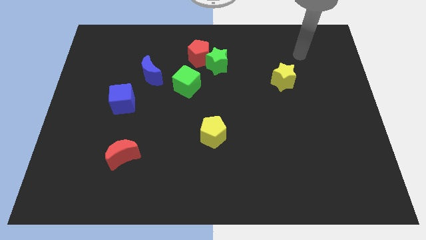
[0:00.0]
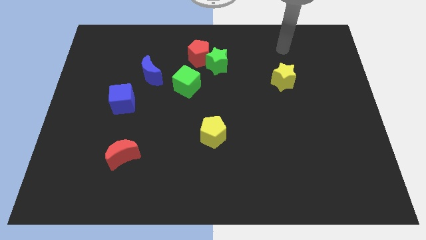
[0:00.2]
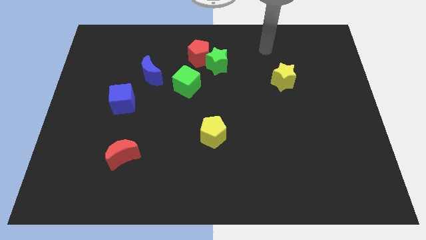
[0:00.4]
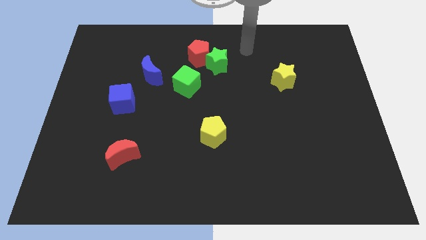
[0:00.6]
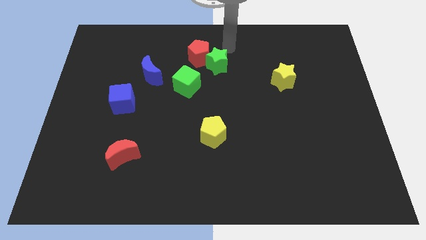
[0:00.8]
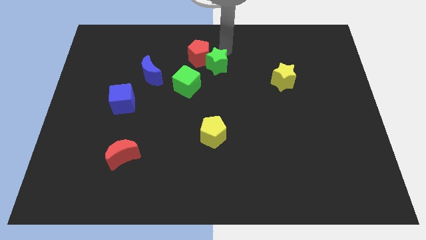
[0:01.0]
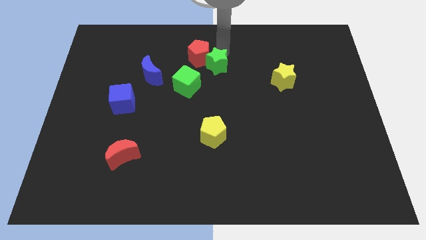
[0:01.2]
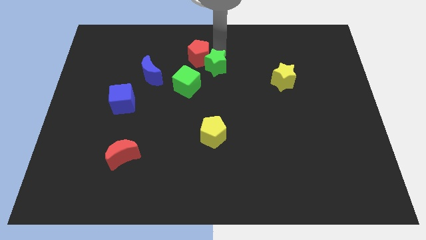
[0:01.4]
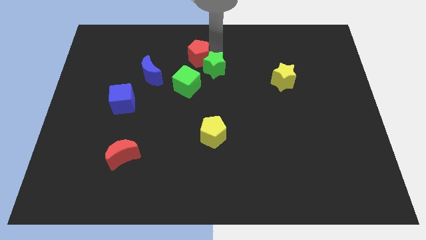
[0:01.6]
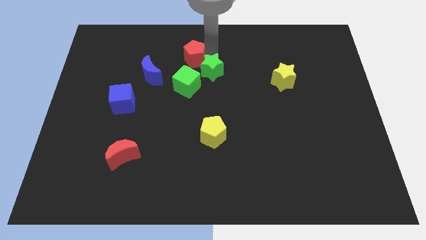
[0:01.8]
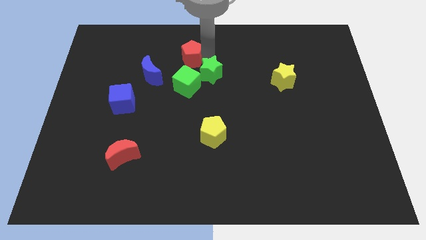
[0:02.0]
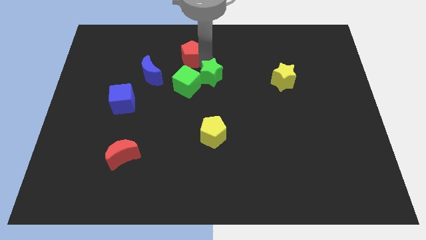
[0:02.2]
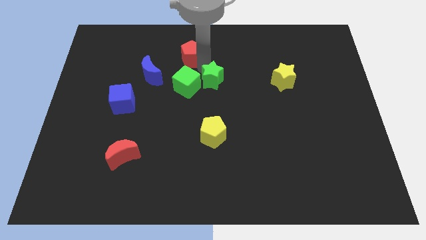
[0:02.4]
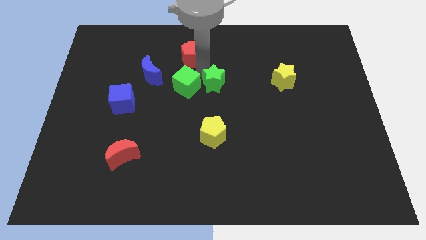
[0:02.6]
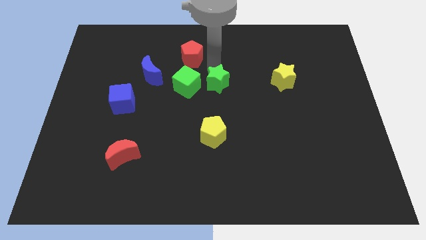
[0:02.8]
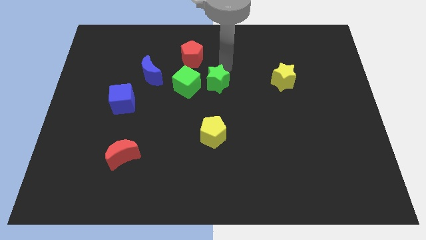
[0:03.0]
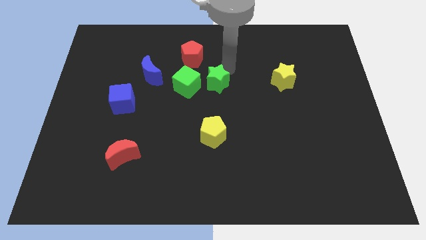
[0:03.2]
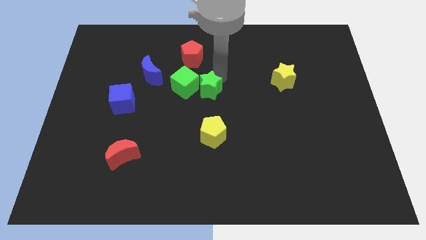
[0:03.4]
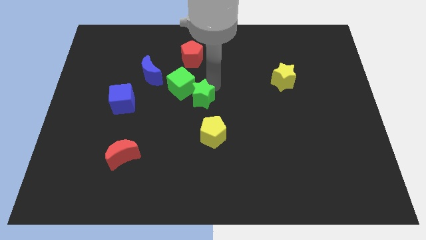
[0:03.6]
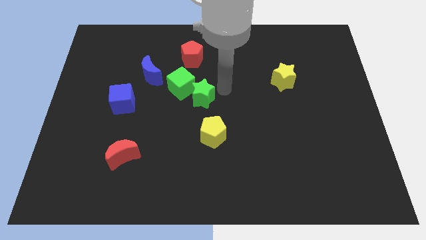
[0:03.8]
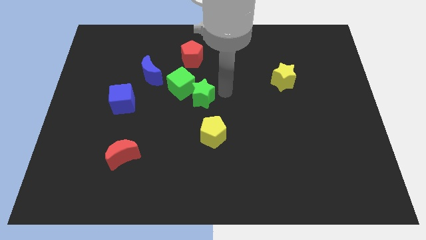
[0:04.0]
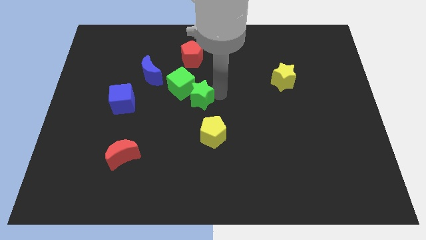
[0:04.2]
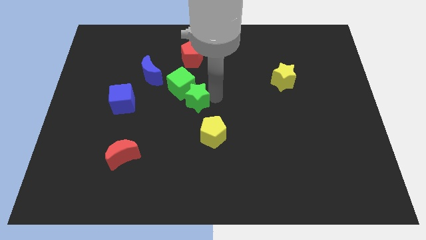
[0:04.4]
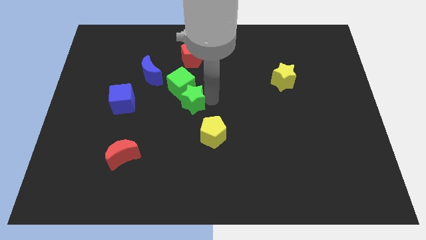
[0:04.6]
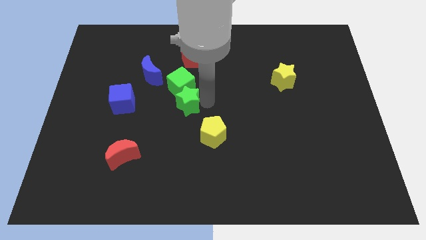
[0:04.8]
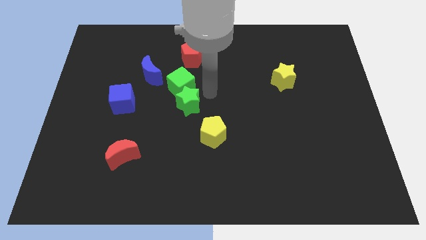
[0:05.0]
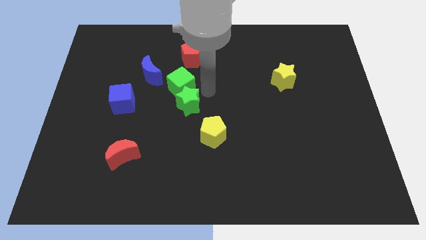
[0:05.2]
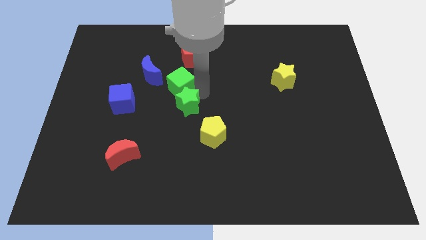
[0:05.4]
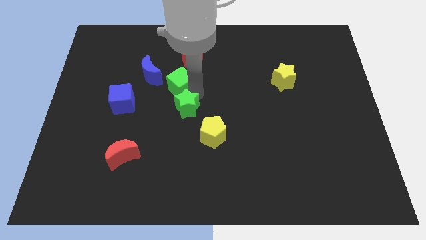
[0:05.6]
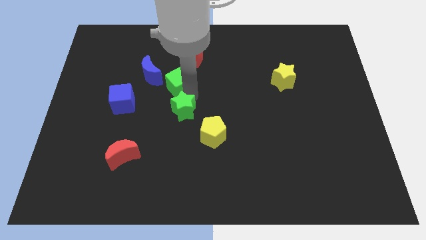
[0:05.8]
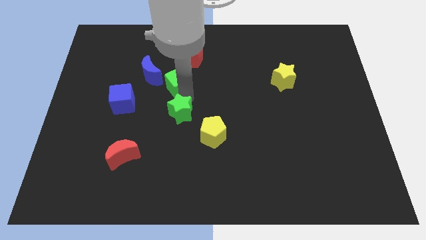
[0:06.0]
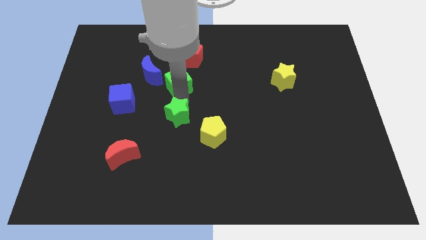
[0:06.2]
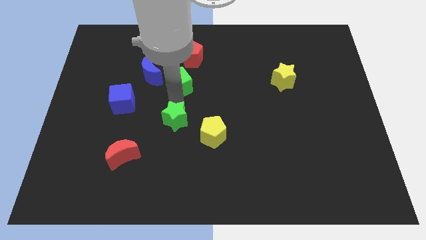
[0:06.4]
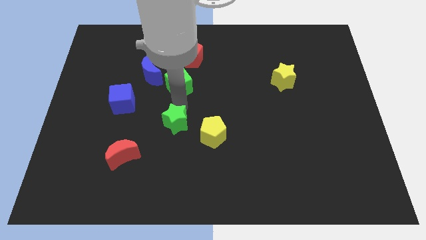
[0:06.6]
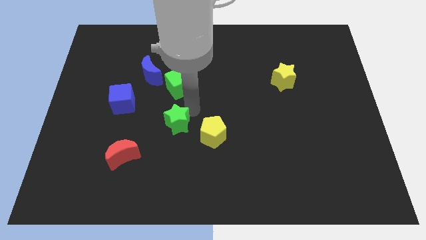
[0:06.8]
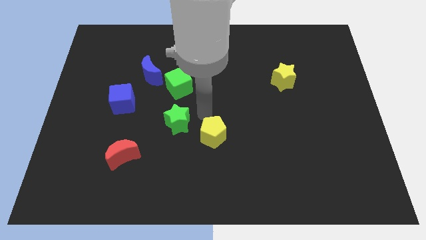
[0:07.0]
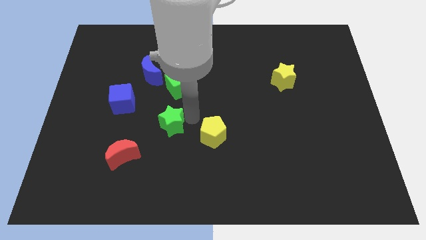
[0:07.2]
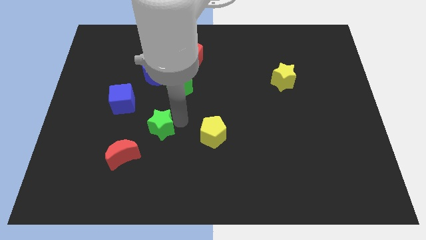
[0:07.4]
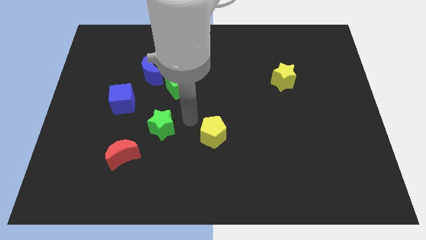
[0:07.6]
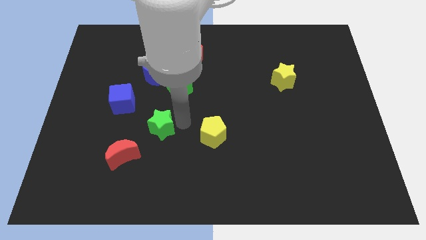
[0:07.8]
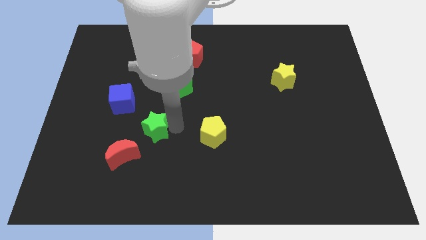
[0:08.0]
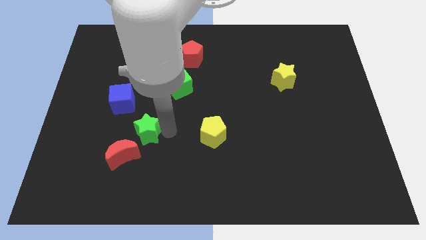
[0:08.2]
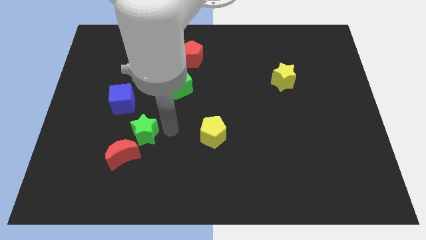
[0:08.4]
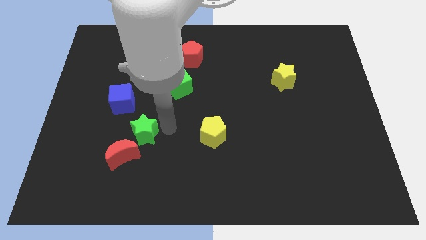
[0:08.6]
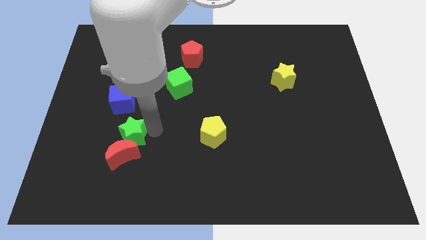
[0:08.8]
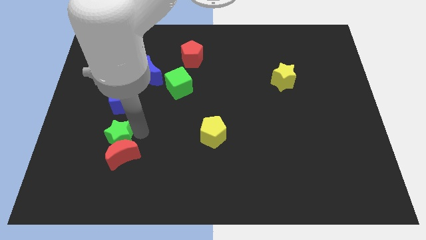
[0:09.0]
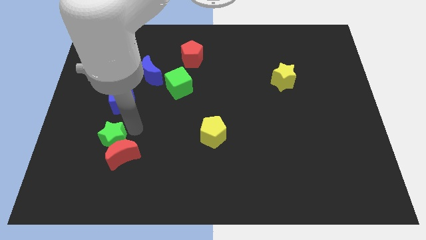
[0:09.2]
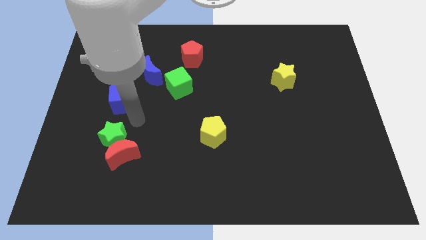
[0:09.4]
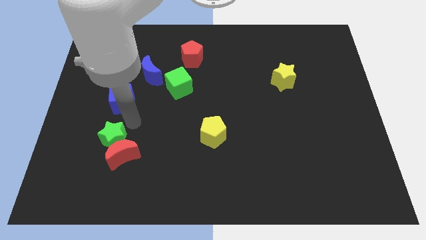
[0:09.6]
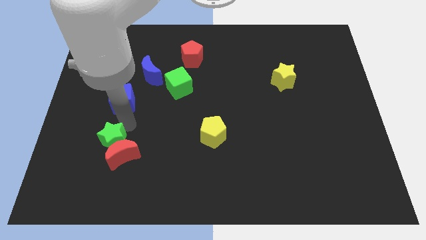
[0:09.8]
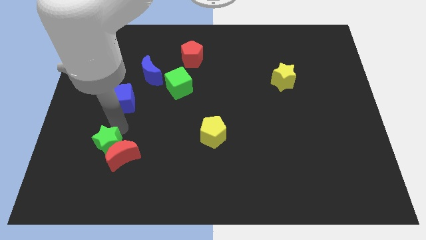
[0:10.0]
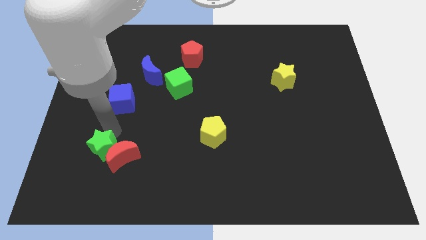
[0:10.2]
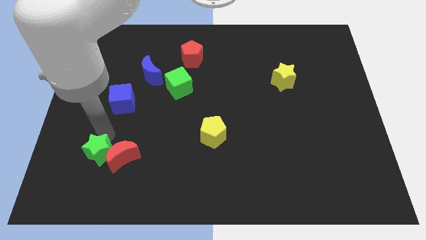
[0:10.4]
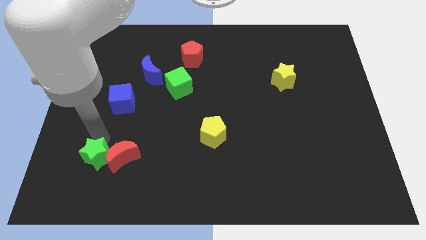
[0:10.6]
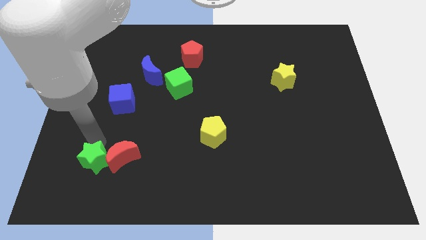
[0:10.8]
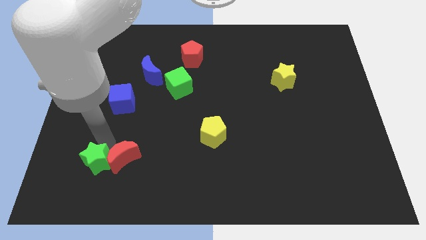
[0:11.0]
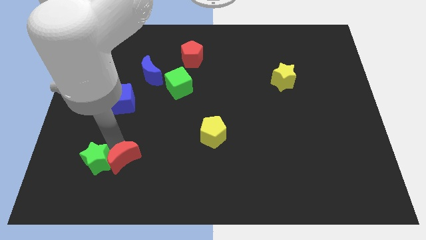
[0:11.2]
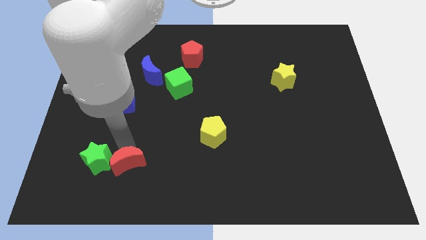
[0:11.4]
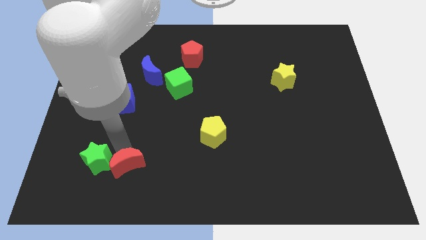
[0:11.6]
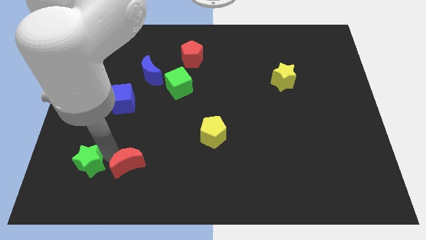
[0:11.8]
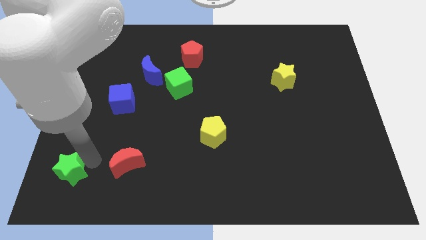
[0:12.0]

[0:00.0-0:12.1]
slide the green star to the lower left corner

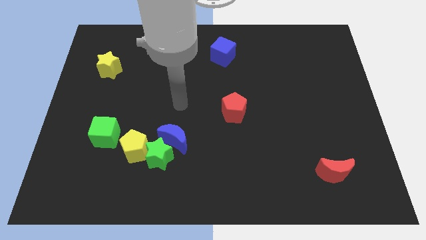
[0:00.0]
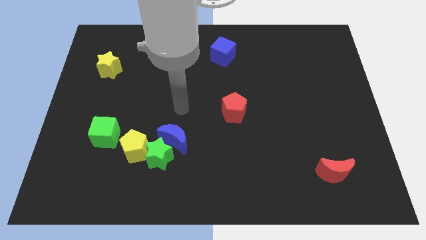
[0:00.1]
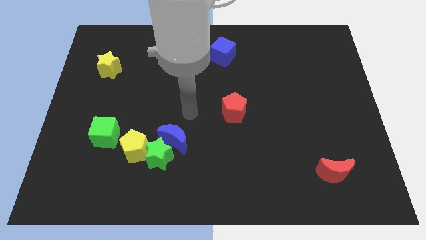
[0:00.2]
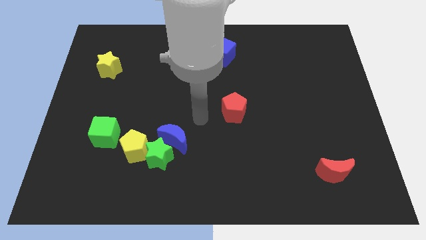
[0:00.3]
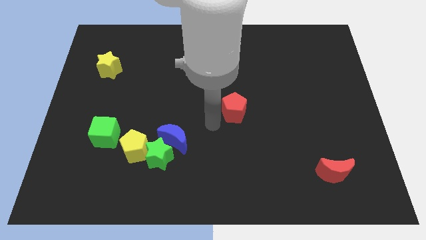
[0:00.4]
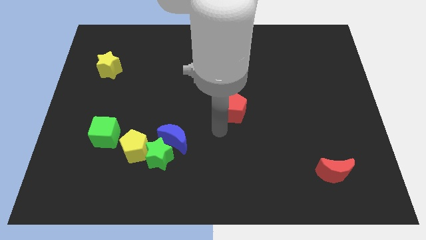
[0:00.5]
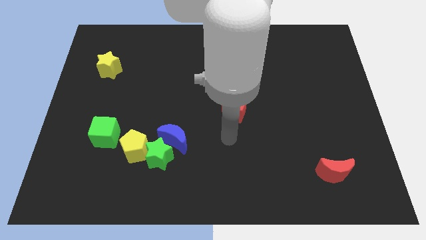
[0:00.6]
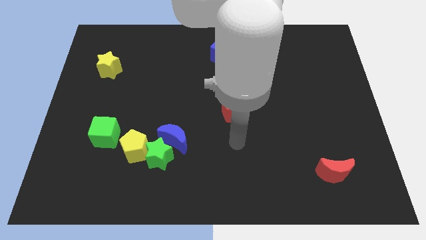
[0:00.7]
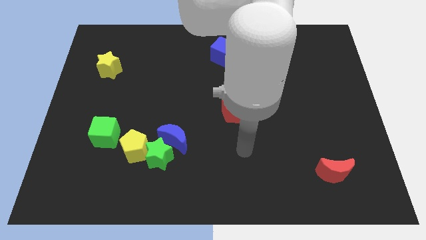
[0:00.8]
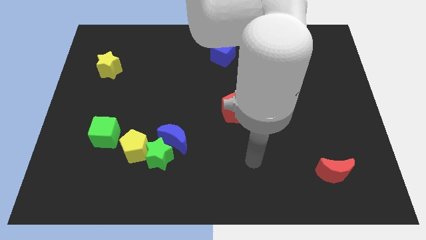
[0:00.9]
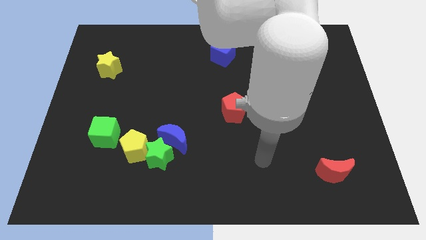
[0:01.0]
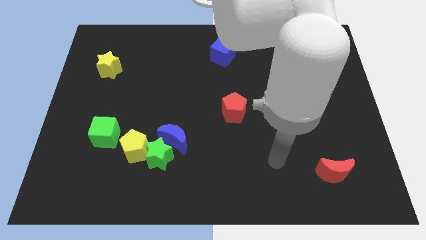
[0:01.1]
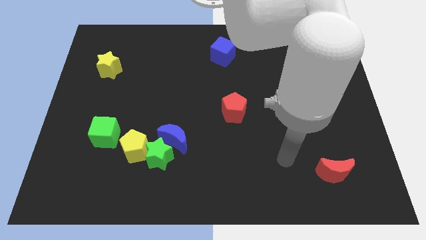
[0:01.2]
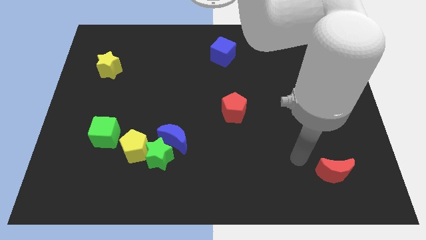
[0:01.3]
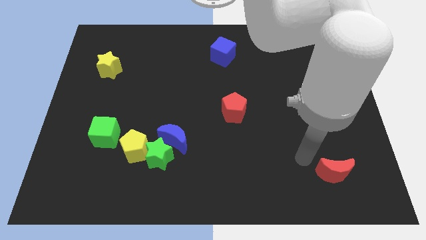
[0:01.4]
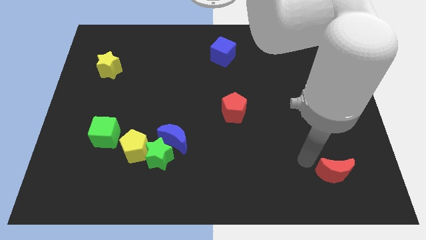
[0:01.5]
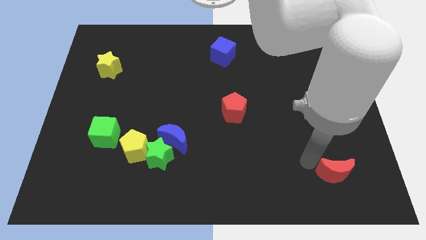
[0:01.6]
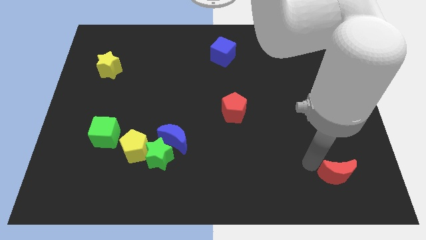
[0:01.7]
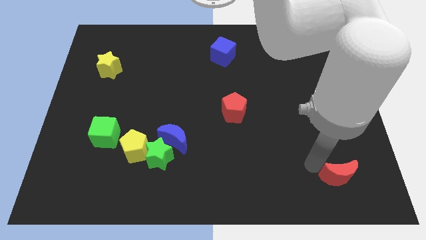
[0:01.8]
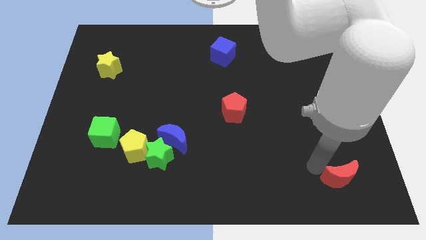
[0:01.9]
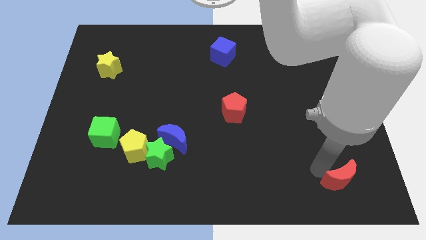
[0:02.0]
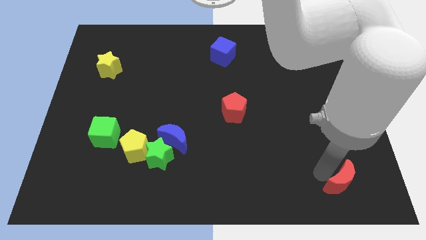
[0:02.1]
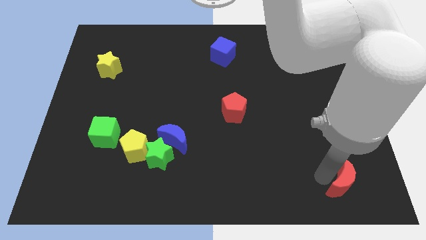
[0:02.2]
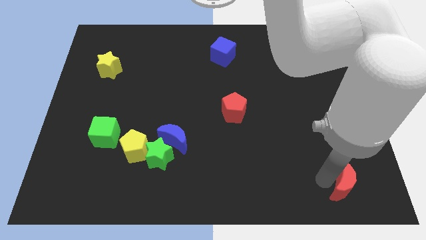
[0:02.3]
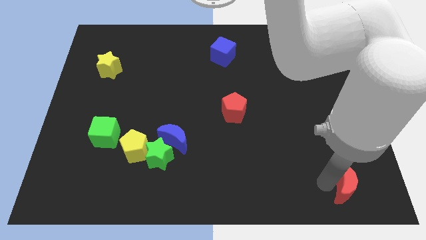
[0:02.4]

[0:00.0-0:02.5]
slide the red moon to the bottom right of the board
